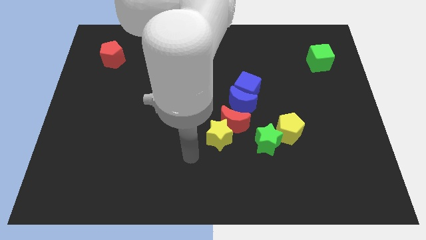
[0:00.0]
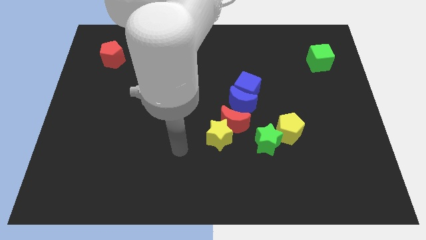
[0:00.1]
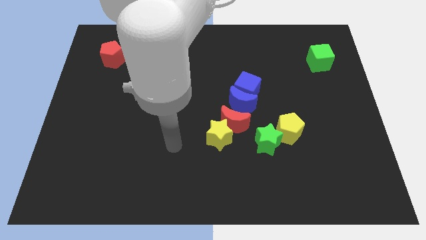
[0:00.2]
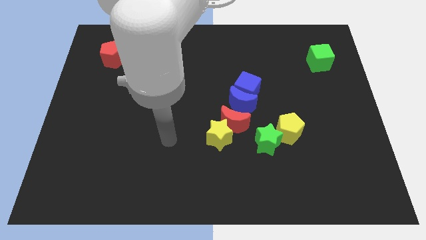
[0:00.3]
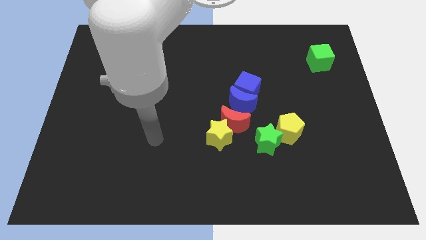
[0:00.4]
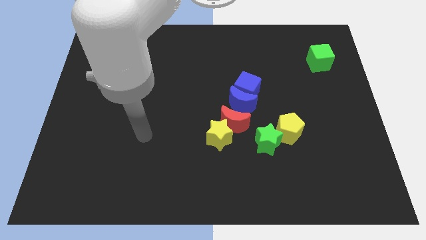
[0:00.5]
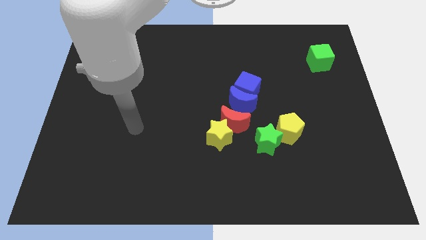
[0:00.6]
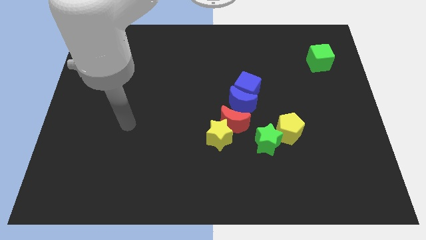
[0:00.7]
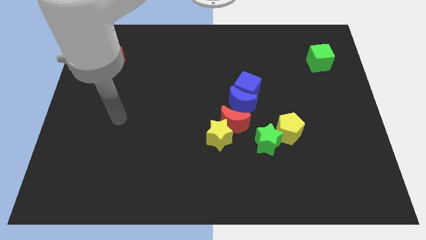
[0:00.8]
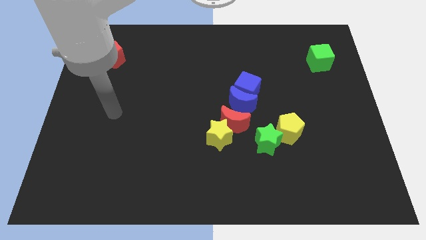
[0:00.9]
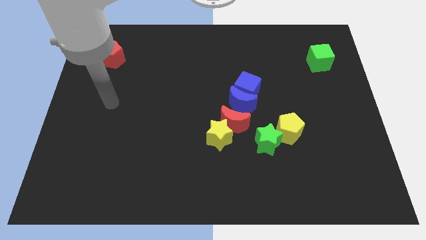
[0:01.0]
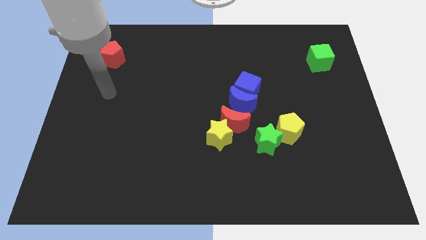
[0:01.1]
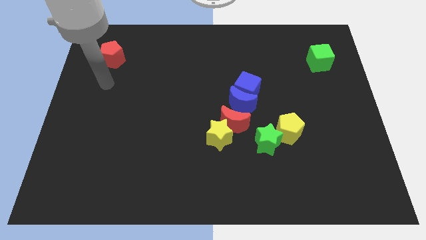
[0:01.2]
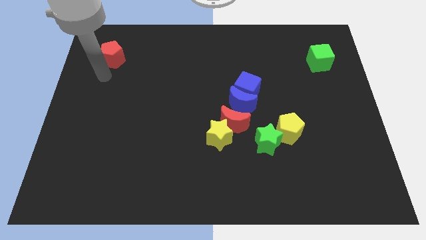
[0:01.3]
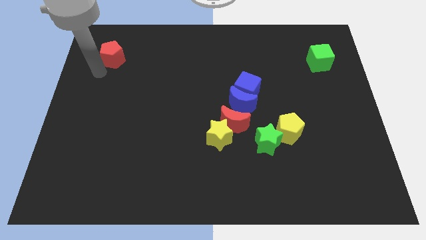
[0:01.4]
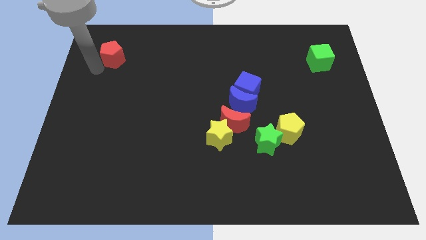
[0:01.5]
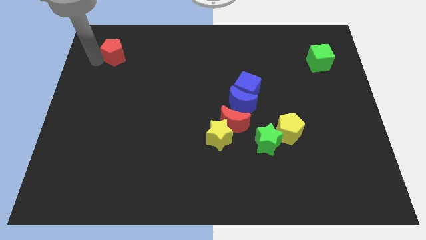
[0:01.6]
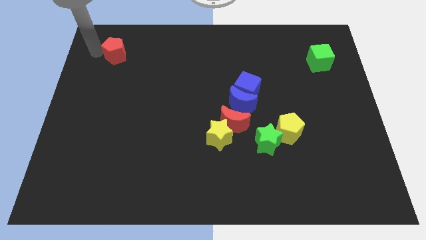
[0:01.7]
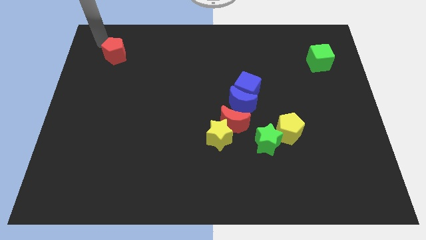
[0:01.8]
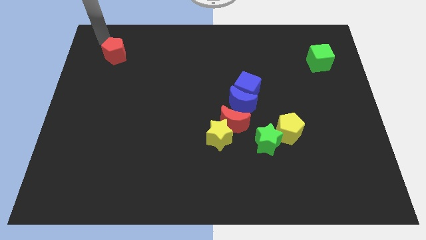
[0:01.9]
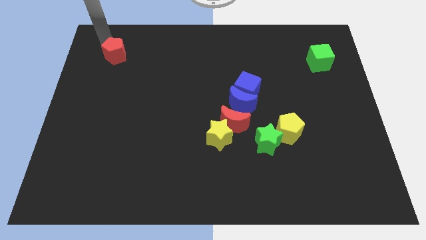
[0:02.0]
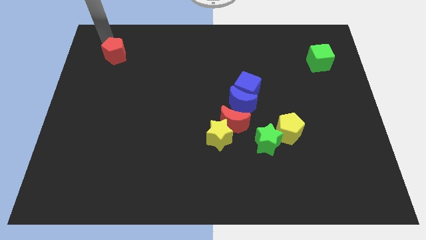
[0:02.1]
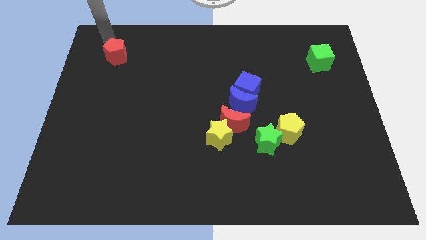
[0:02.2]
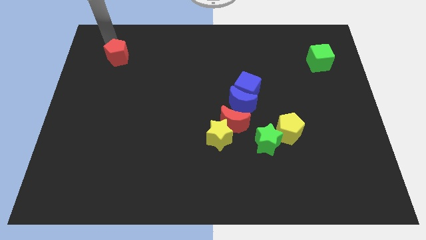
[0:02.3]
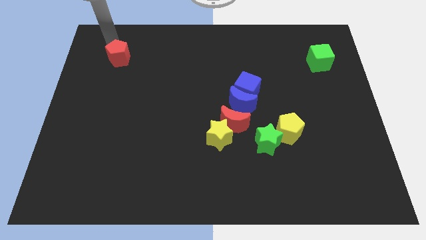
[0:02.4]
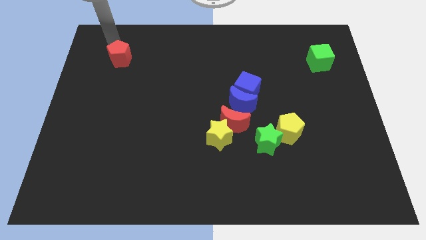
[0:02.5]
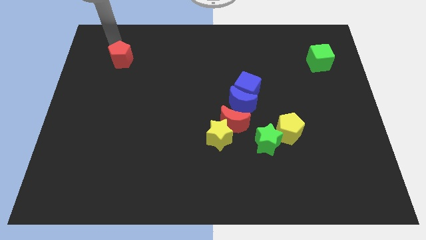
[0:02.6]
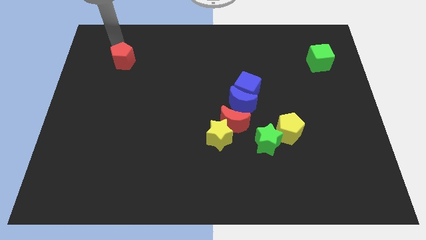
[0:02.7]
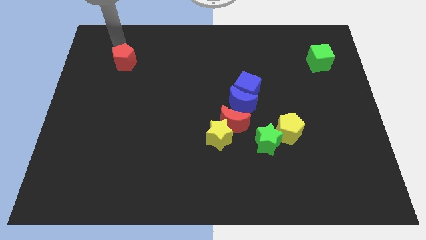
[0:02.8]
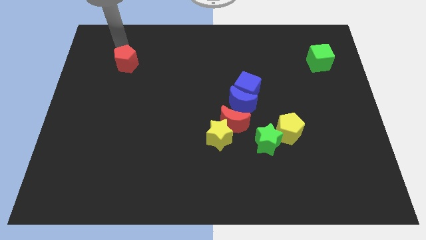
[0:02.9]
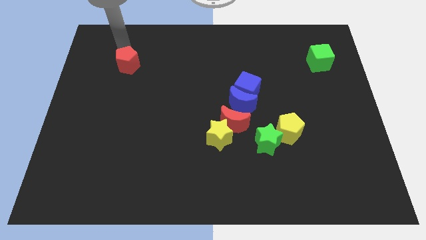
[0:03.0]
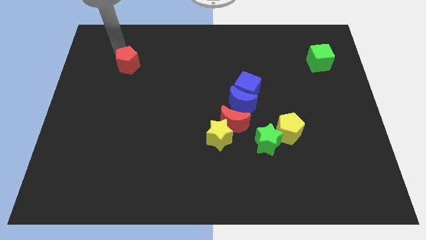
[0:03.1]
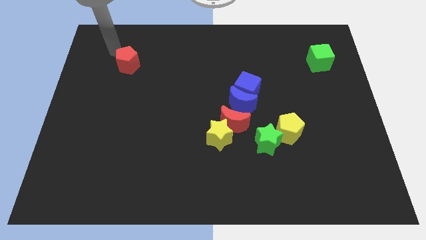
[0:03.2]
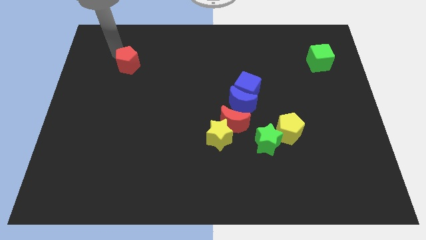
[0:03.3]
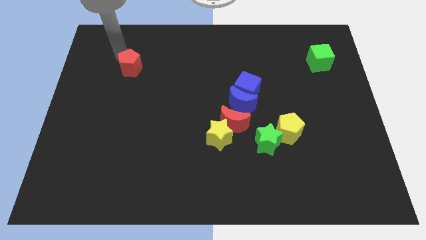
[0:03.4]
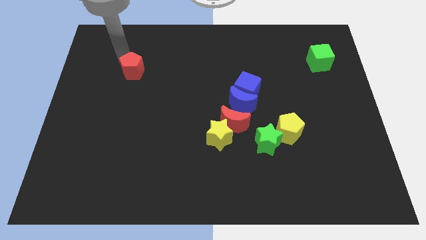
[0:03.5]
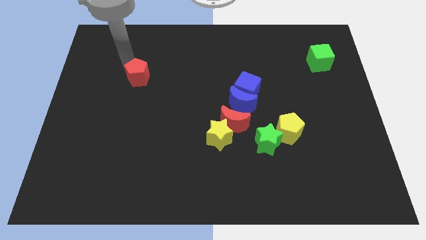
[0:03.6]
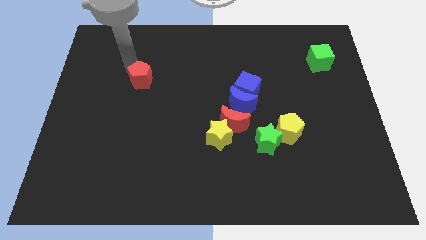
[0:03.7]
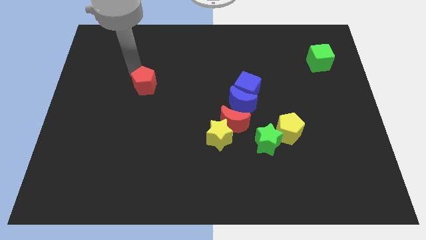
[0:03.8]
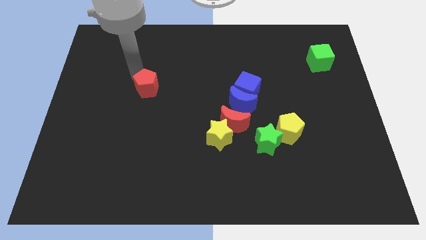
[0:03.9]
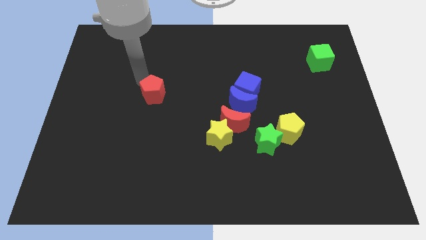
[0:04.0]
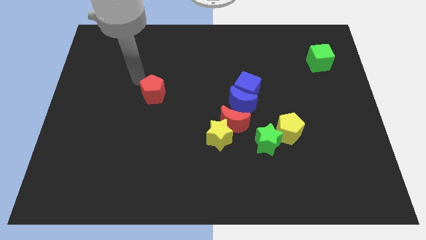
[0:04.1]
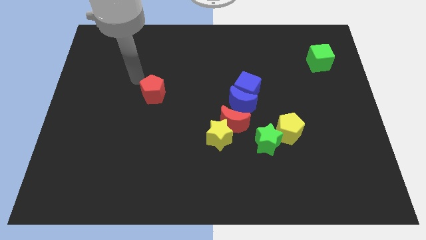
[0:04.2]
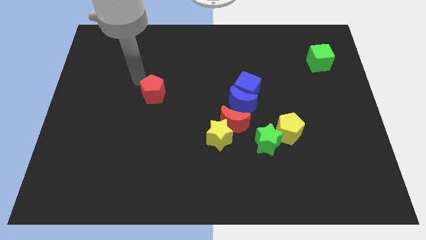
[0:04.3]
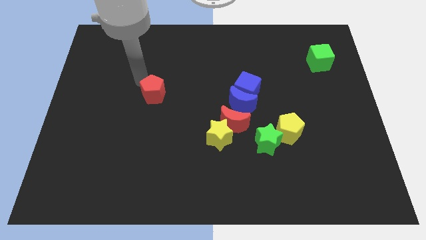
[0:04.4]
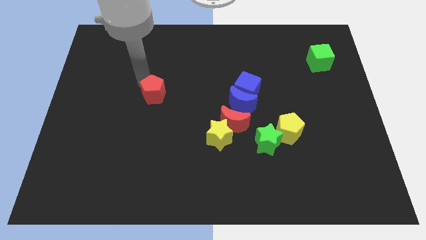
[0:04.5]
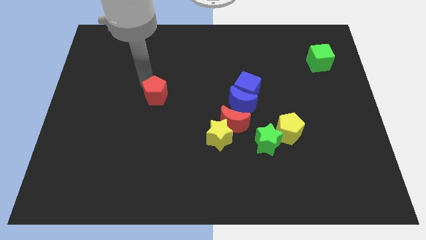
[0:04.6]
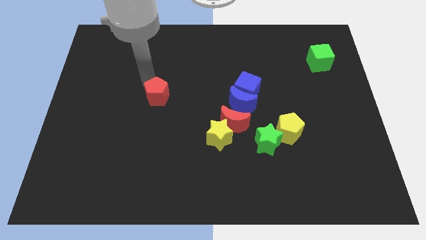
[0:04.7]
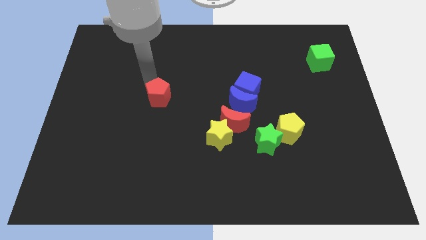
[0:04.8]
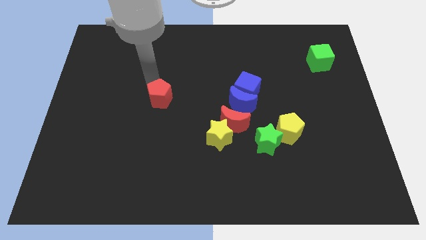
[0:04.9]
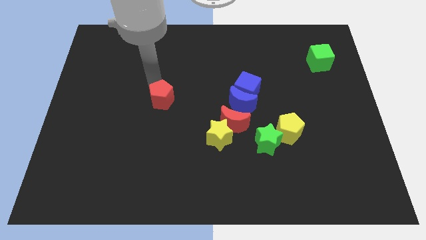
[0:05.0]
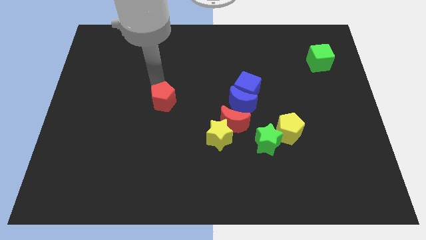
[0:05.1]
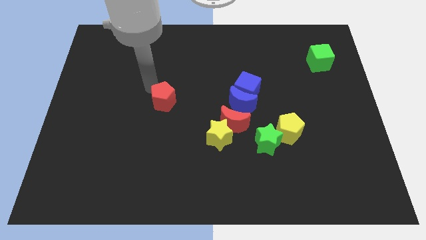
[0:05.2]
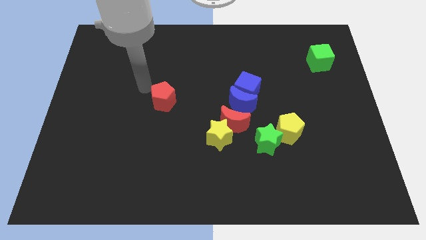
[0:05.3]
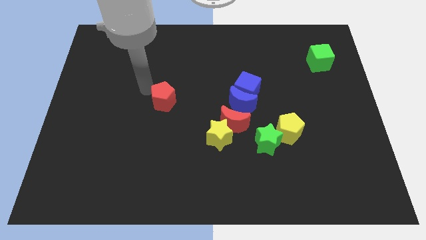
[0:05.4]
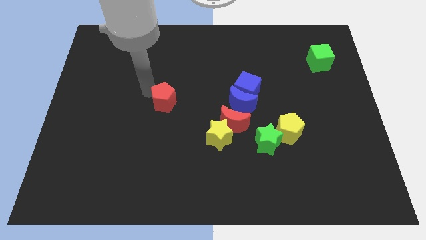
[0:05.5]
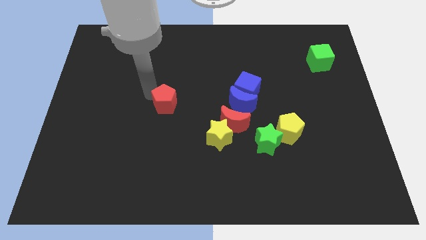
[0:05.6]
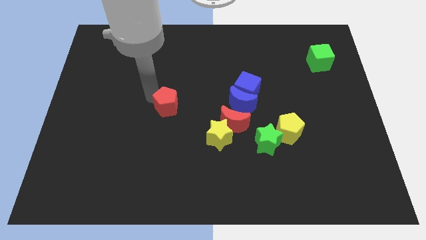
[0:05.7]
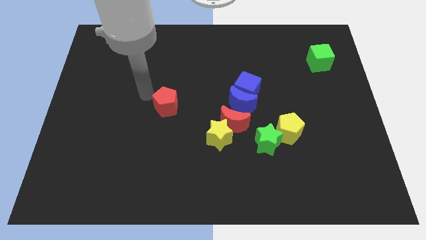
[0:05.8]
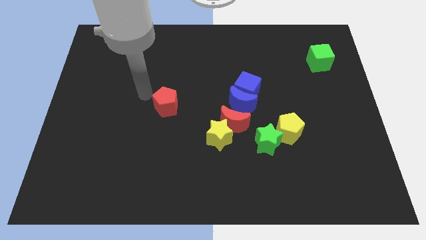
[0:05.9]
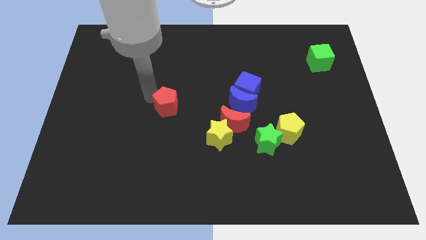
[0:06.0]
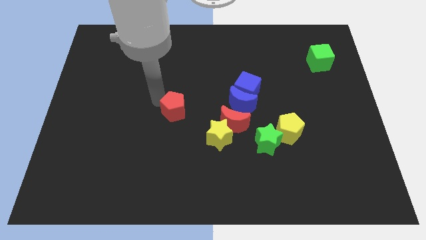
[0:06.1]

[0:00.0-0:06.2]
slide the red pentagon to the top left side of the yellow star
